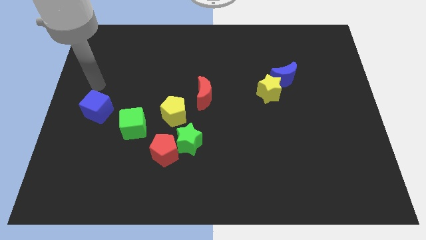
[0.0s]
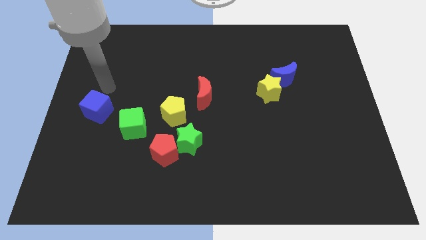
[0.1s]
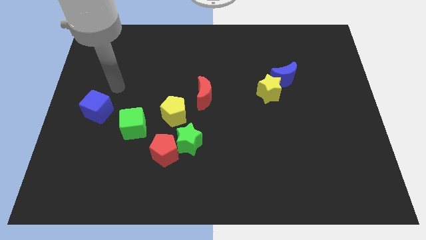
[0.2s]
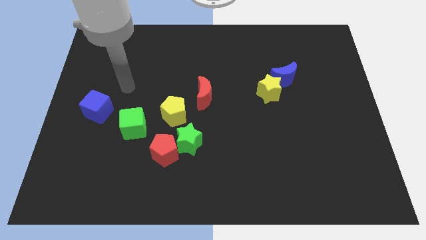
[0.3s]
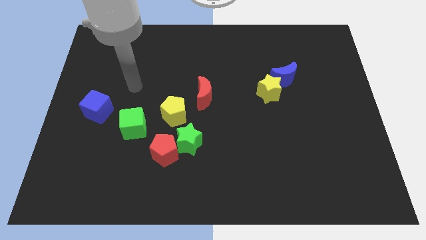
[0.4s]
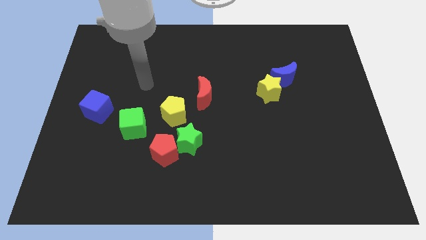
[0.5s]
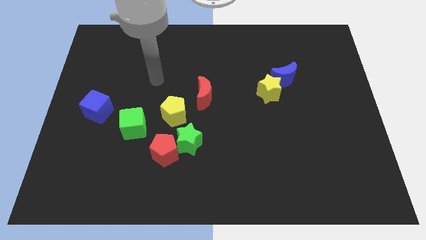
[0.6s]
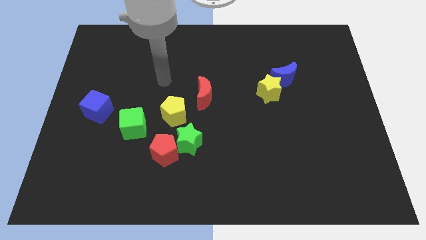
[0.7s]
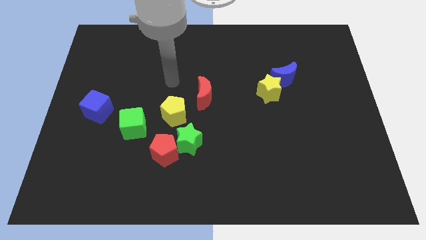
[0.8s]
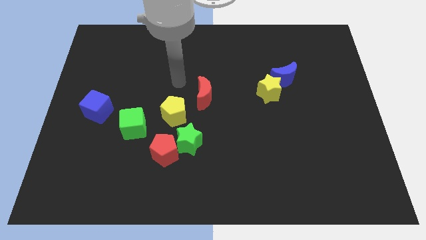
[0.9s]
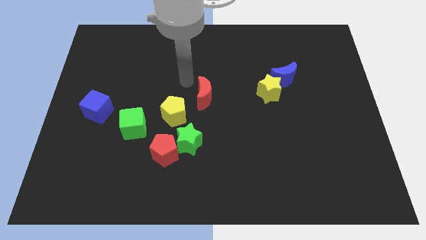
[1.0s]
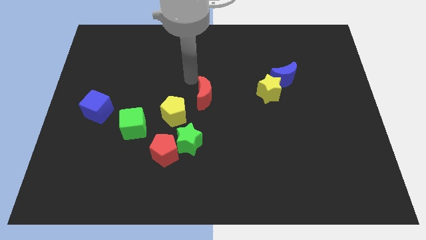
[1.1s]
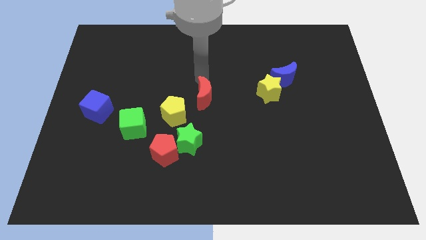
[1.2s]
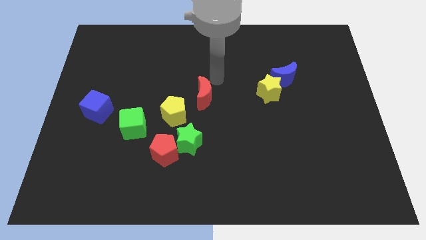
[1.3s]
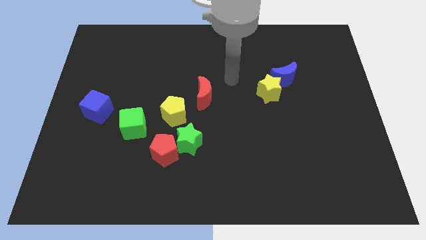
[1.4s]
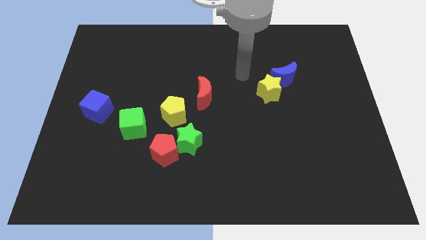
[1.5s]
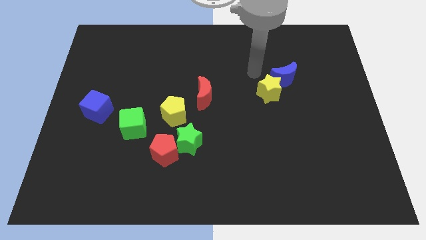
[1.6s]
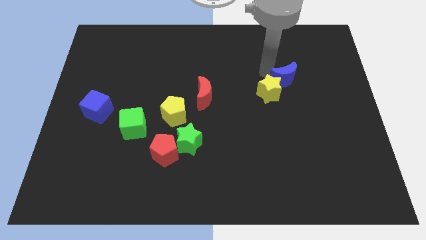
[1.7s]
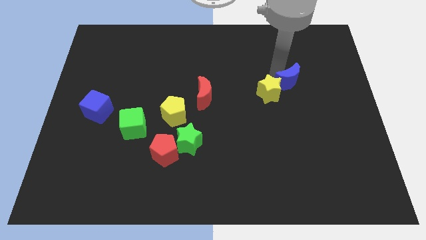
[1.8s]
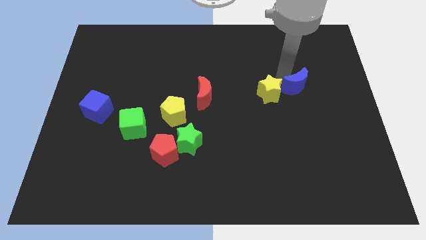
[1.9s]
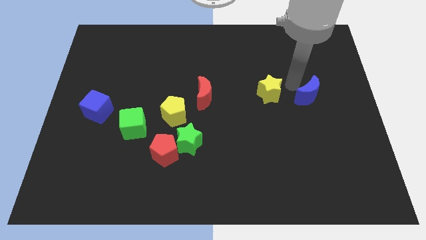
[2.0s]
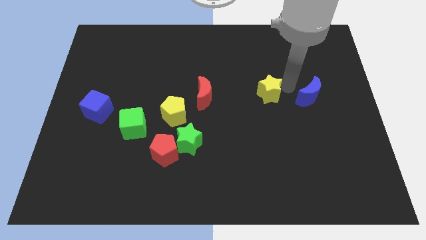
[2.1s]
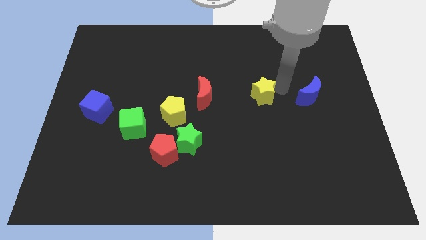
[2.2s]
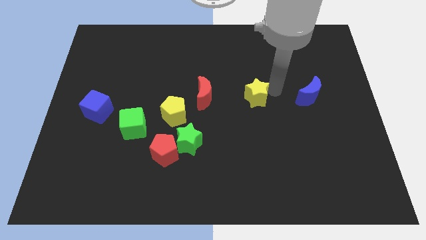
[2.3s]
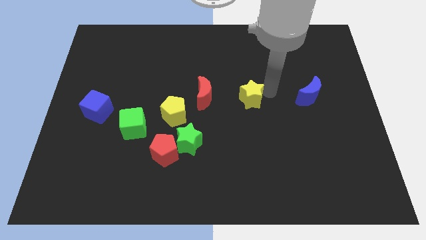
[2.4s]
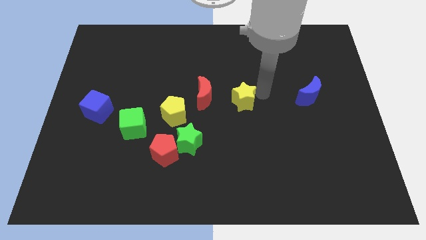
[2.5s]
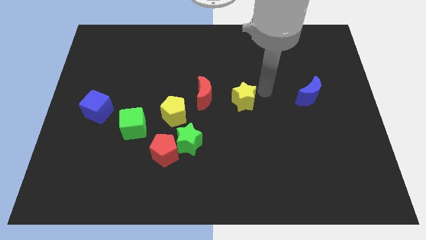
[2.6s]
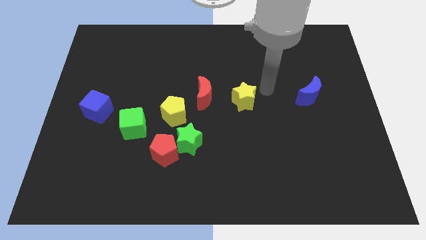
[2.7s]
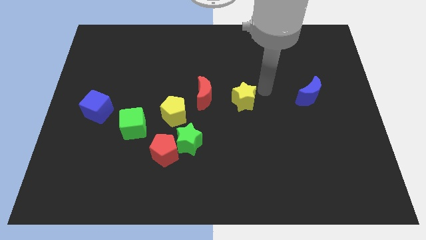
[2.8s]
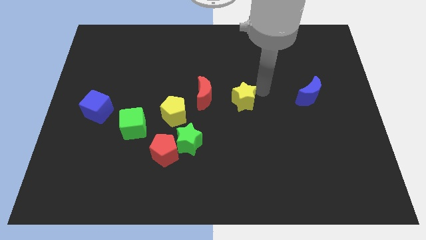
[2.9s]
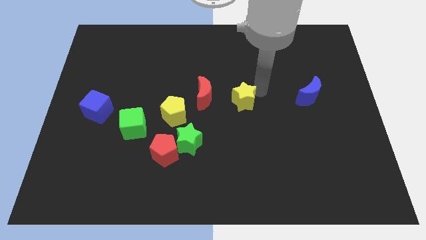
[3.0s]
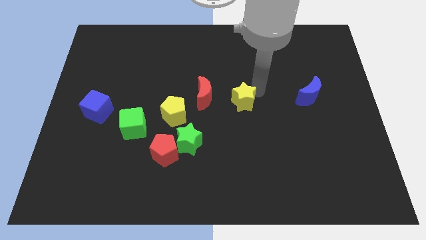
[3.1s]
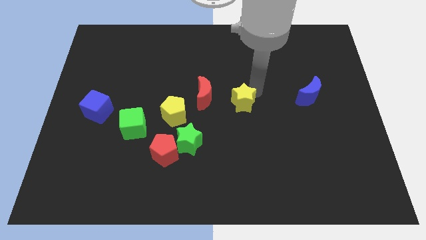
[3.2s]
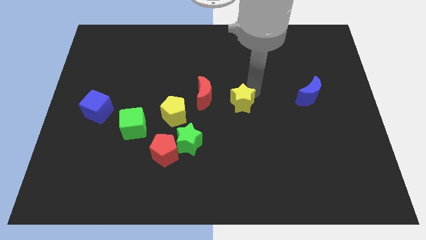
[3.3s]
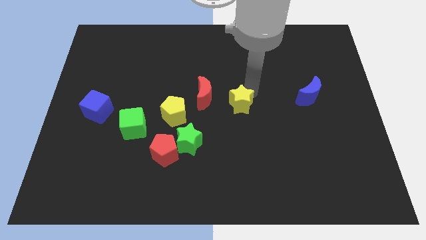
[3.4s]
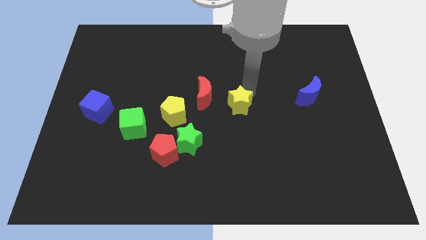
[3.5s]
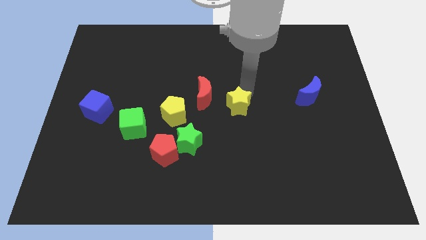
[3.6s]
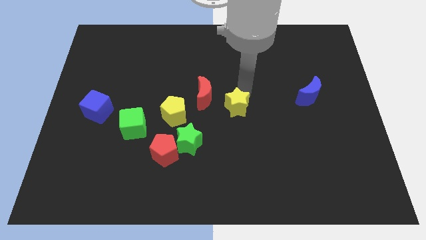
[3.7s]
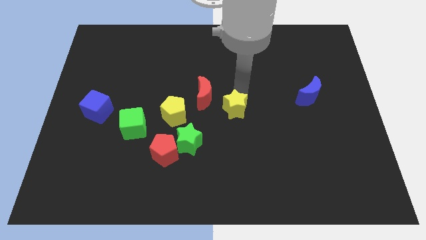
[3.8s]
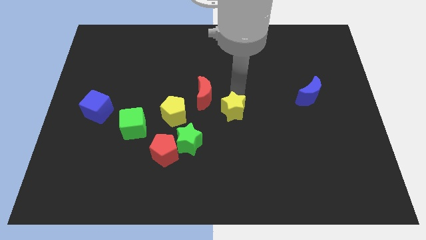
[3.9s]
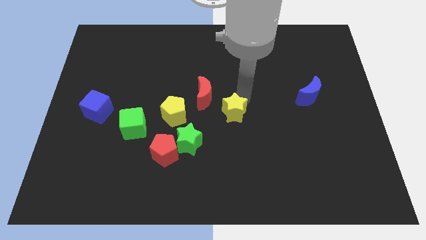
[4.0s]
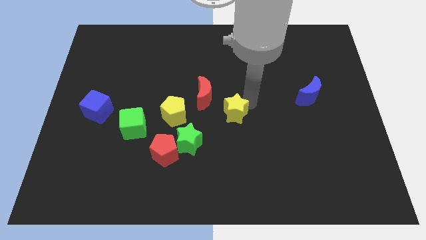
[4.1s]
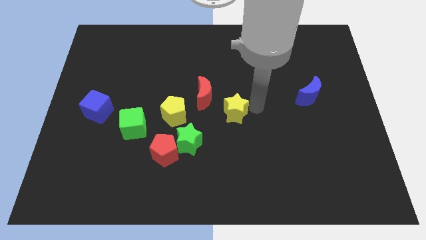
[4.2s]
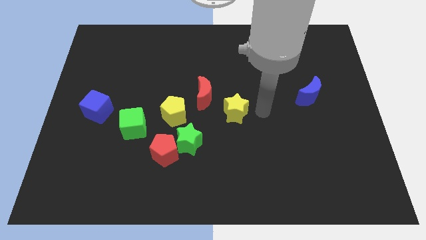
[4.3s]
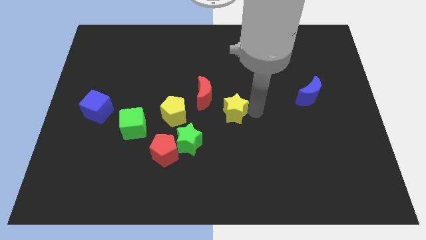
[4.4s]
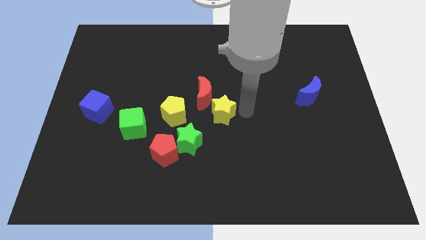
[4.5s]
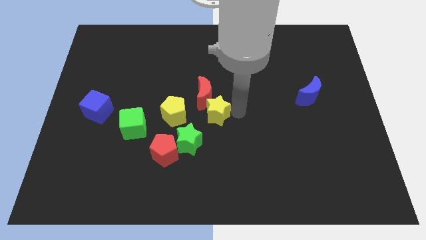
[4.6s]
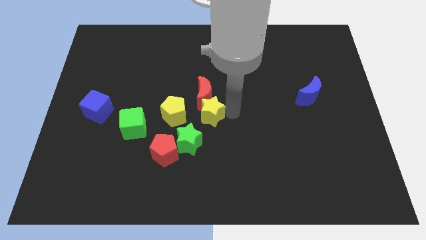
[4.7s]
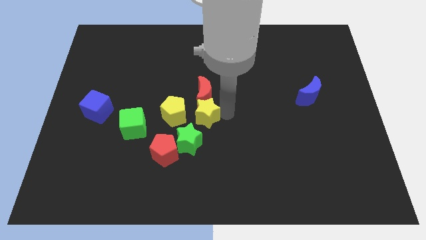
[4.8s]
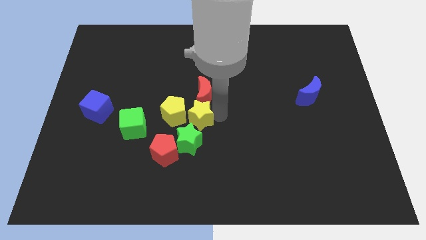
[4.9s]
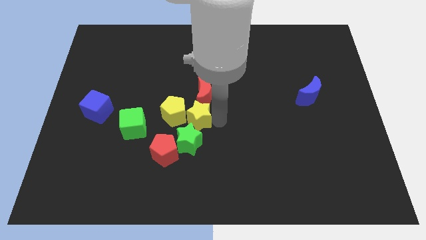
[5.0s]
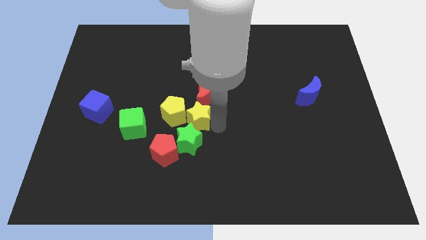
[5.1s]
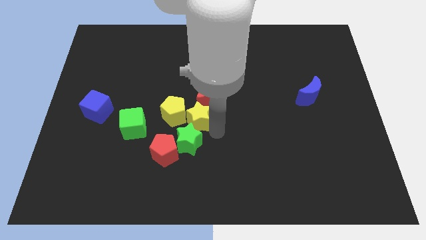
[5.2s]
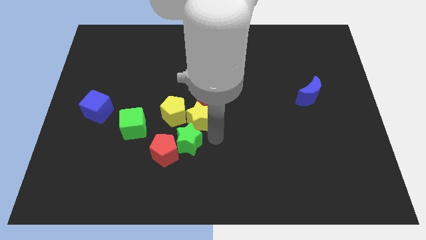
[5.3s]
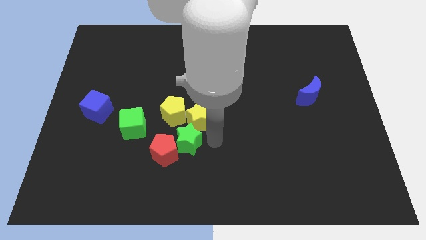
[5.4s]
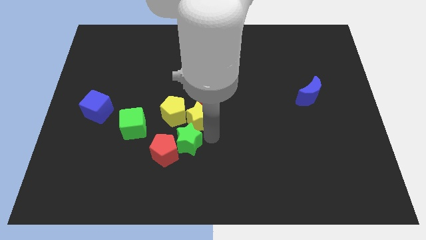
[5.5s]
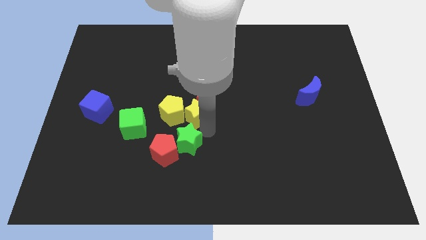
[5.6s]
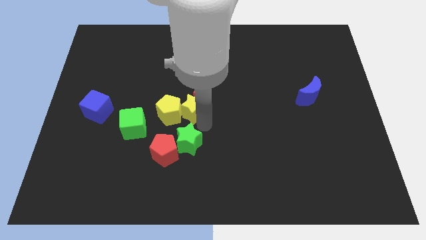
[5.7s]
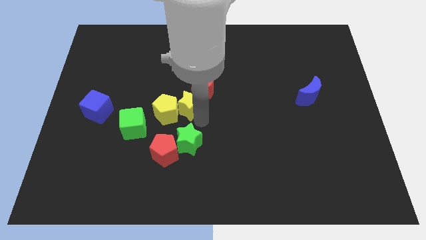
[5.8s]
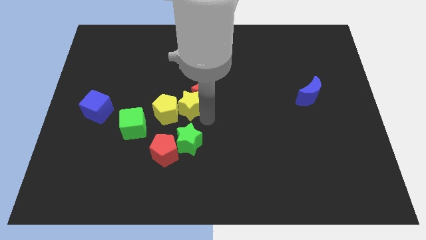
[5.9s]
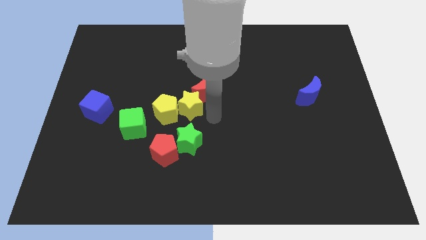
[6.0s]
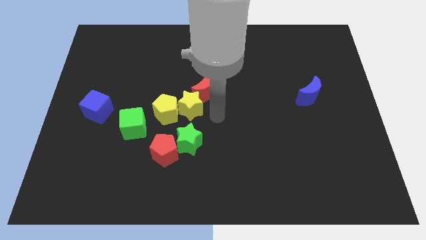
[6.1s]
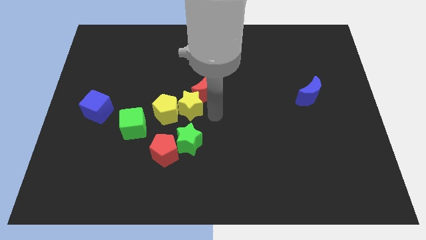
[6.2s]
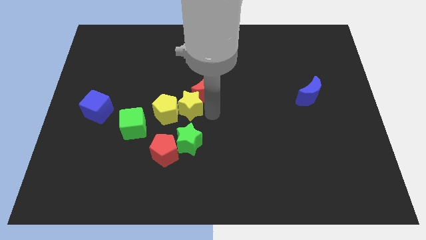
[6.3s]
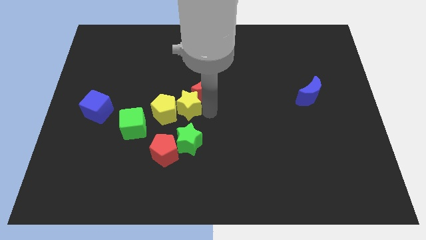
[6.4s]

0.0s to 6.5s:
push the yellow star above the red pentagon
